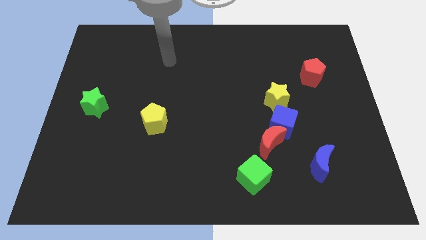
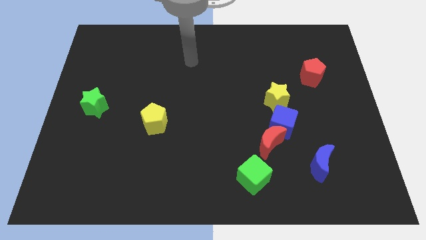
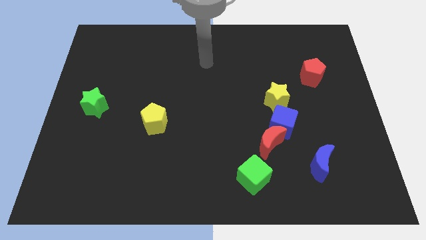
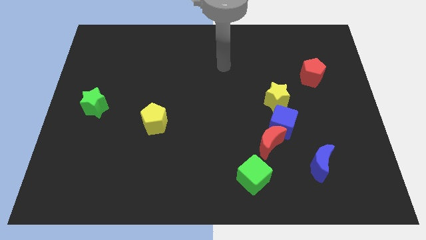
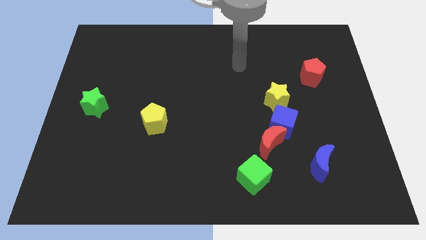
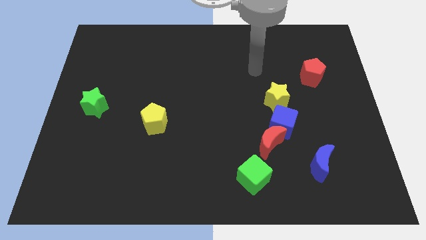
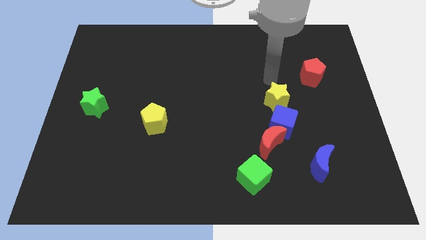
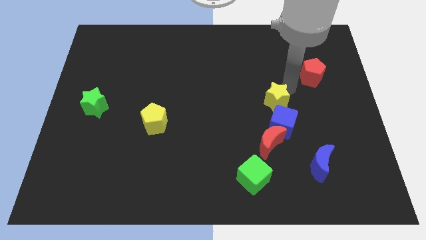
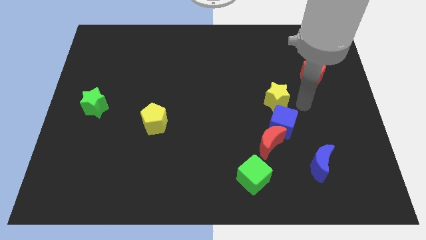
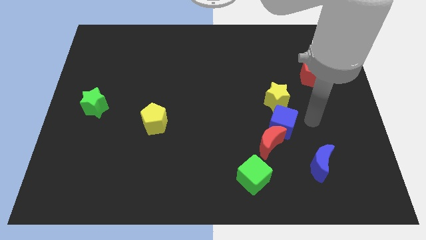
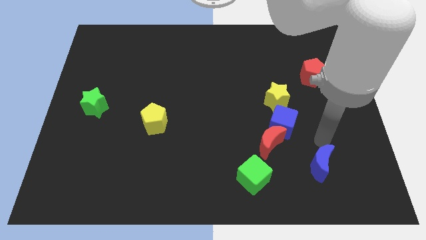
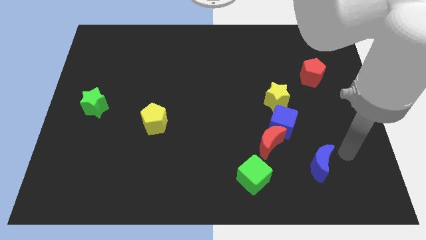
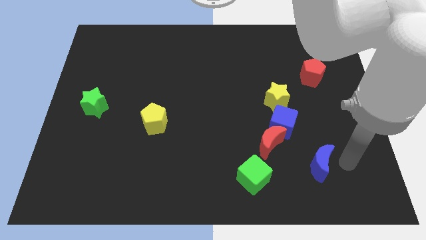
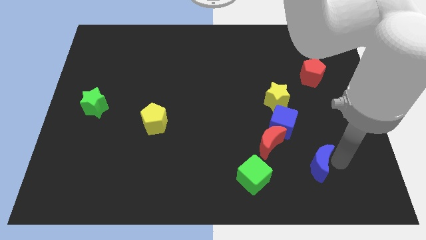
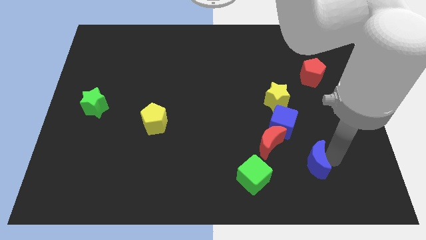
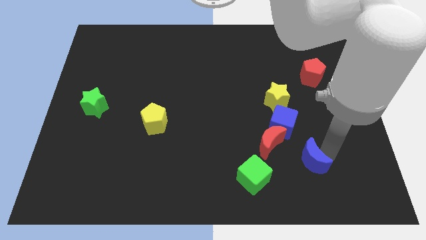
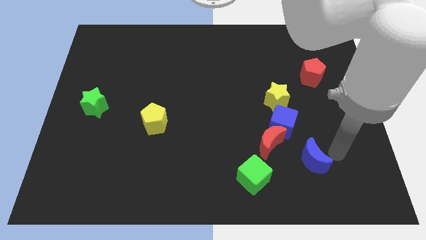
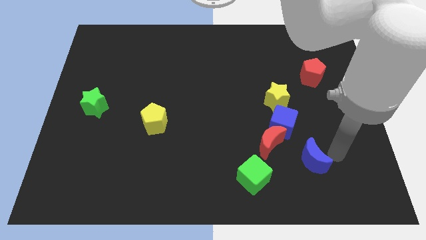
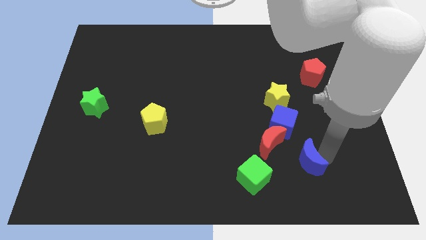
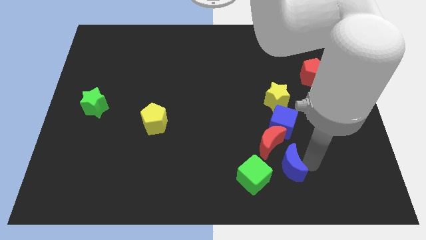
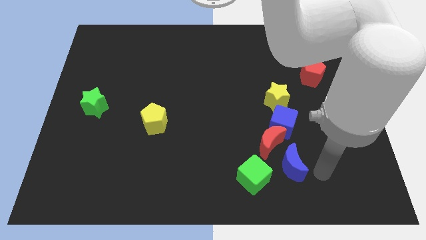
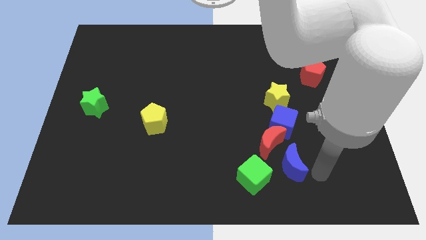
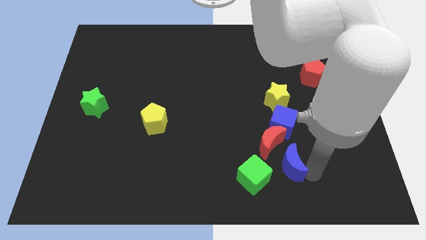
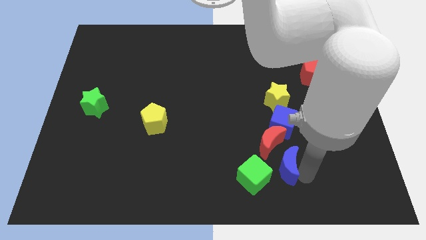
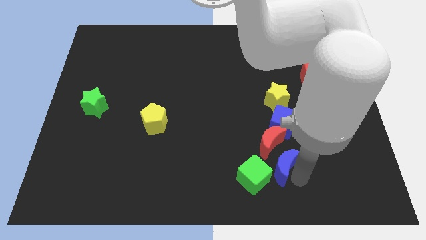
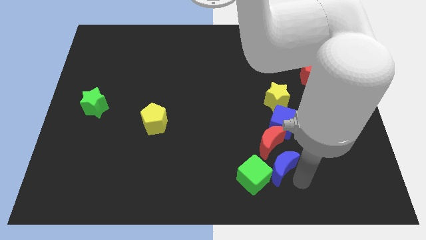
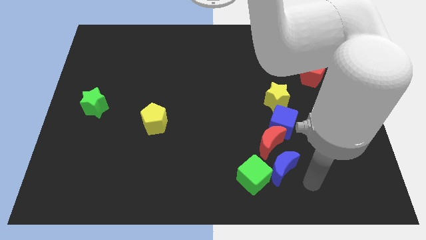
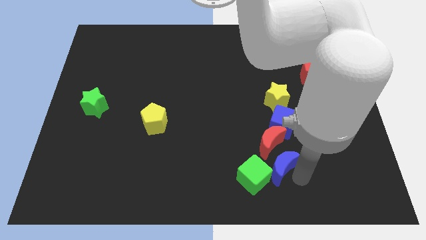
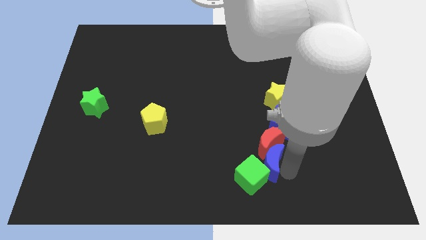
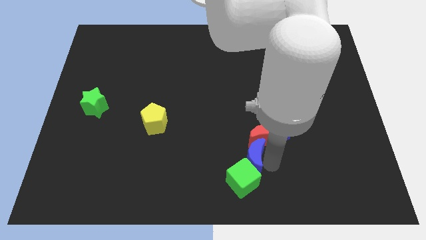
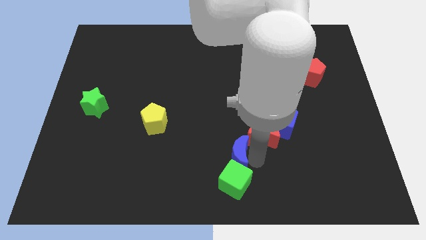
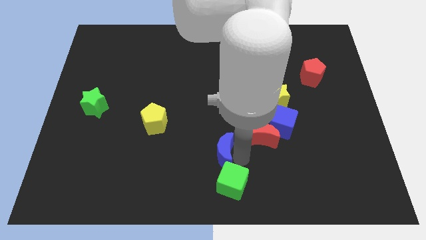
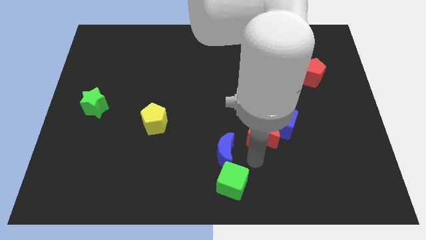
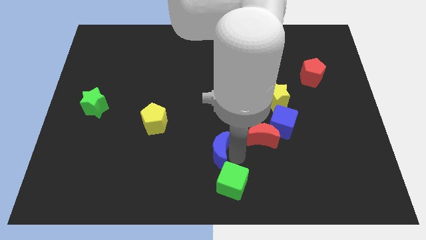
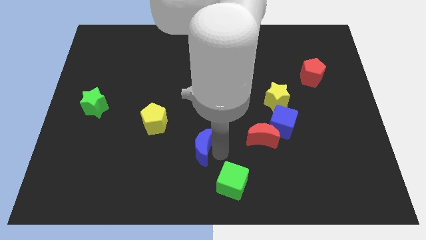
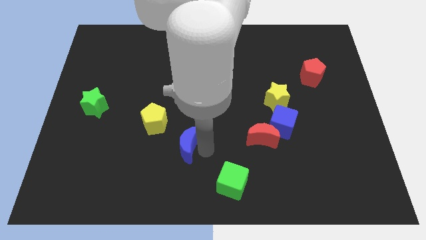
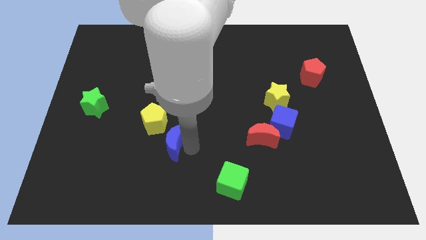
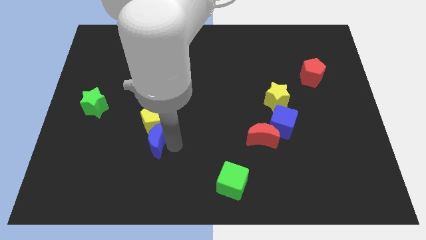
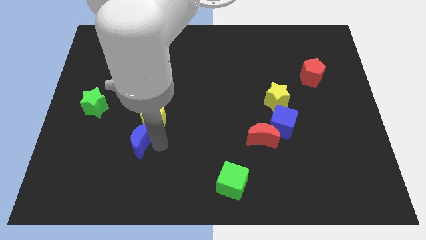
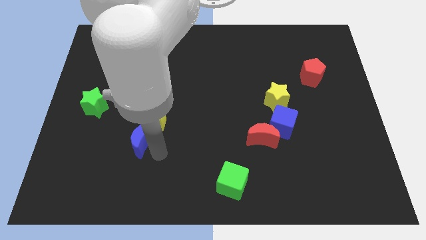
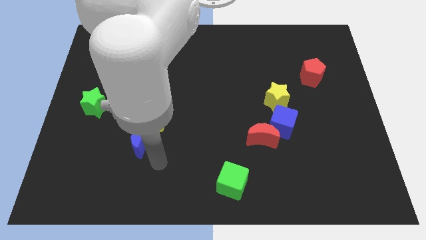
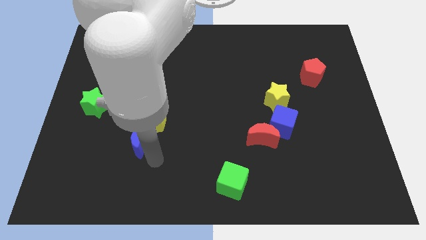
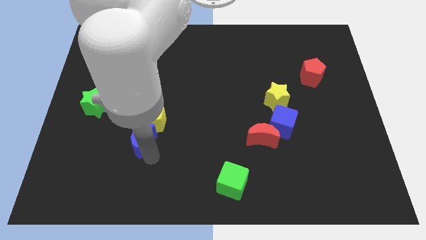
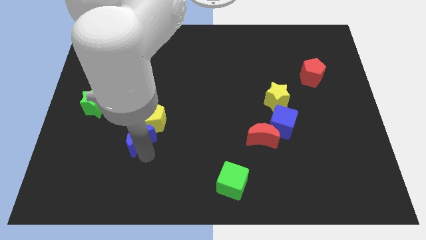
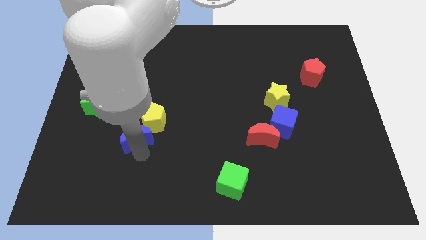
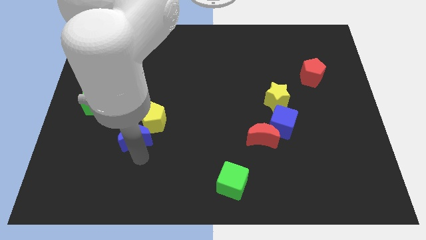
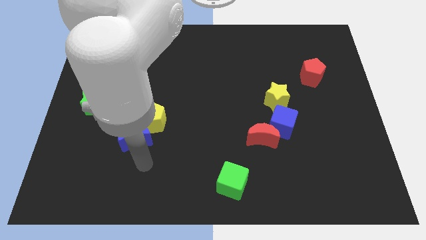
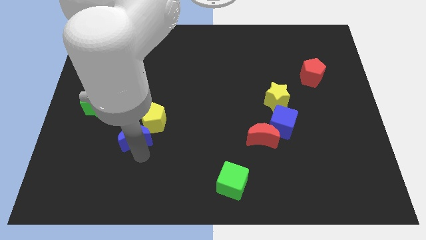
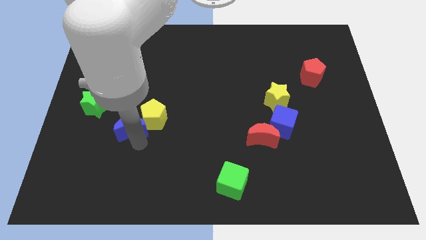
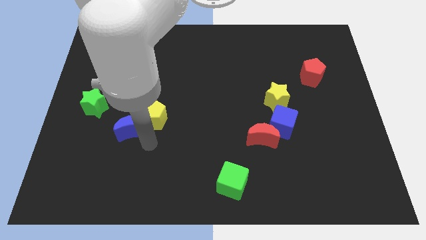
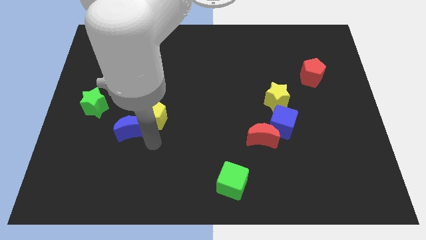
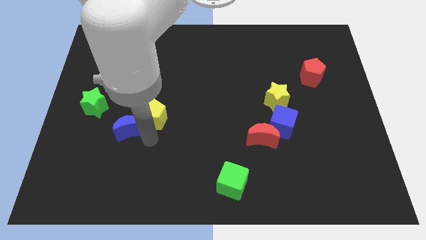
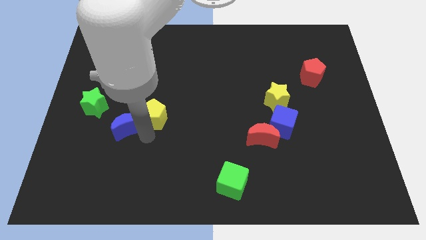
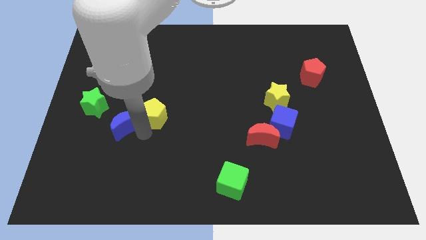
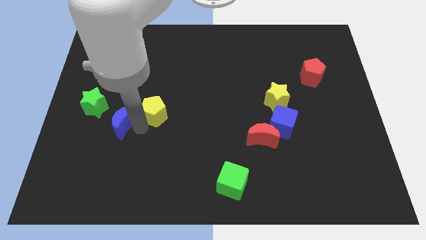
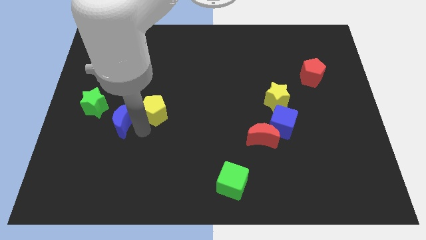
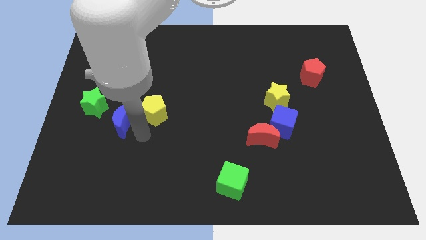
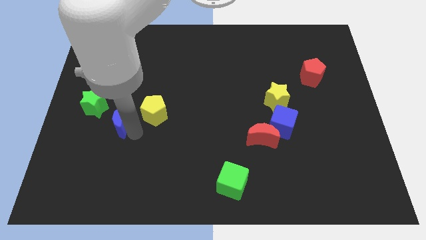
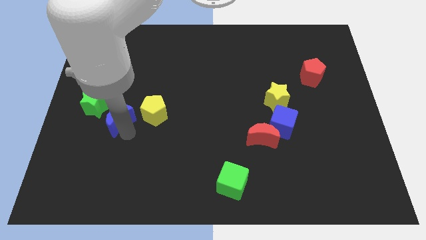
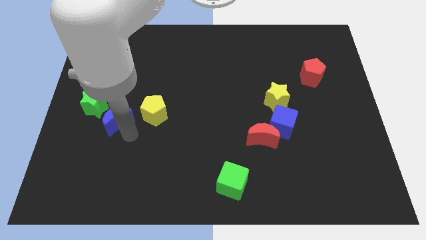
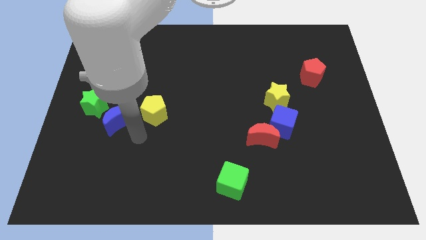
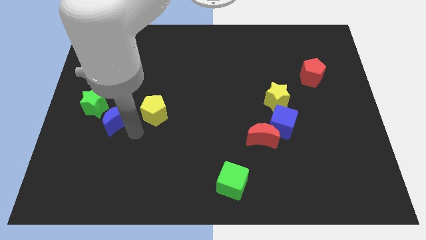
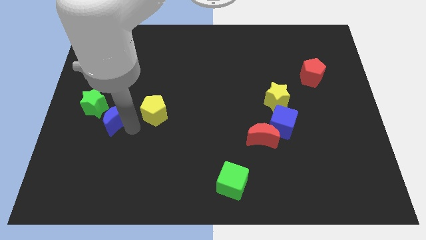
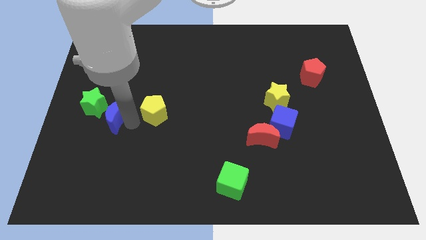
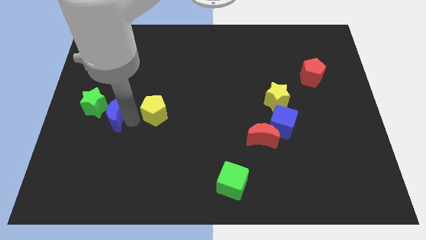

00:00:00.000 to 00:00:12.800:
move the blue moon towards the green star
